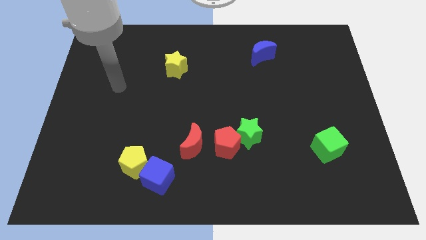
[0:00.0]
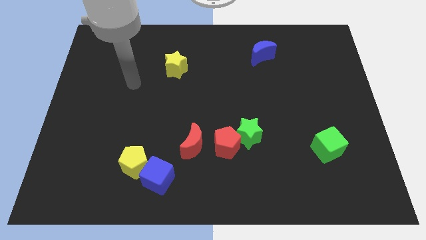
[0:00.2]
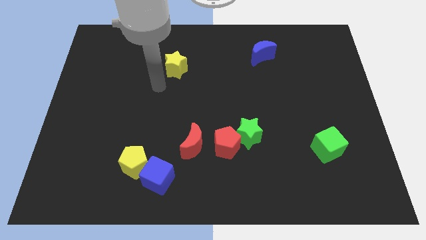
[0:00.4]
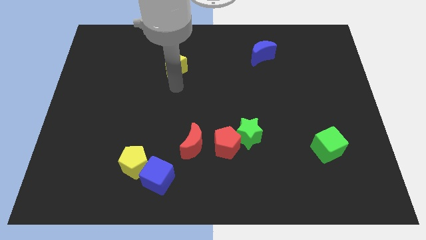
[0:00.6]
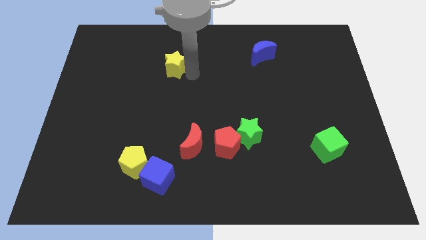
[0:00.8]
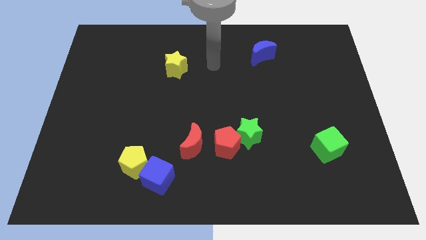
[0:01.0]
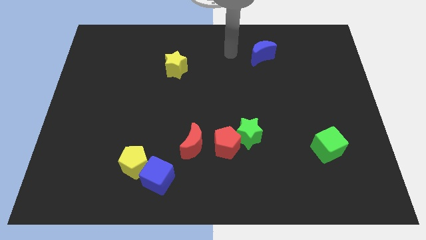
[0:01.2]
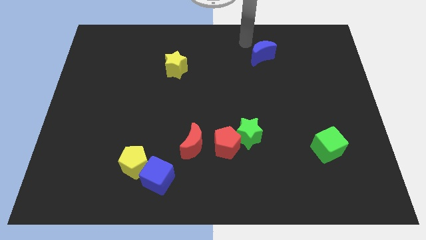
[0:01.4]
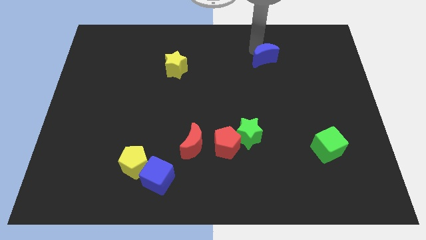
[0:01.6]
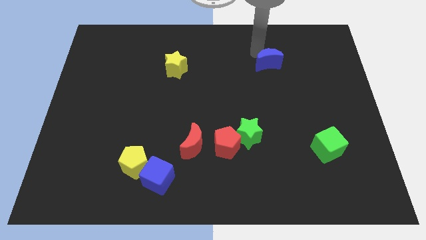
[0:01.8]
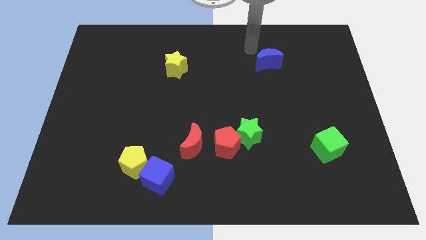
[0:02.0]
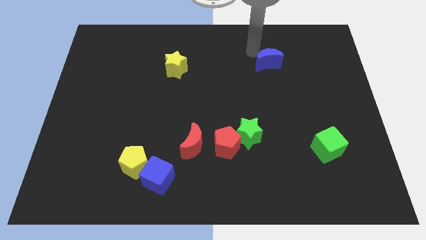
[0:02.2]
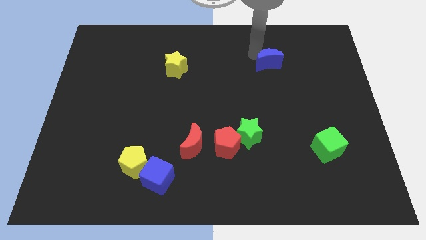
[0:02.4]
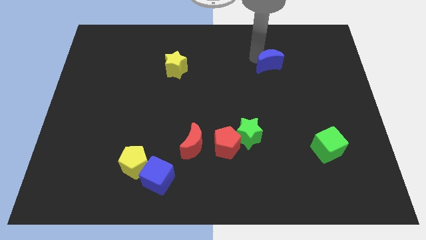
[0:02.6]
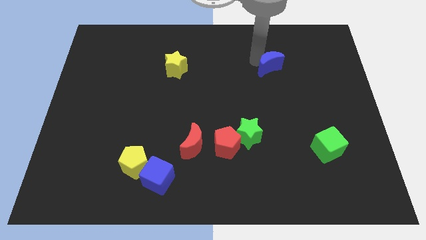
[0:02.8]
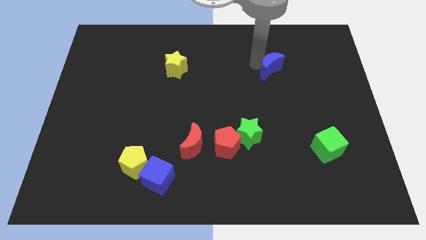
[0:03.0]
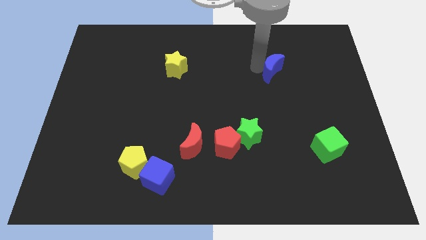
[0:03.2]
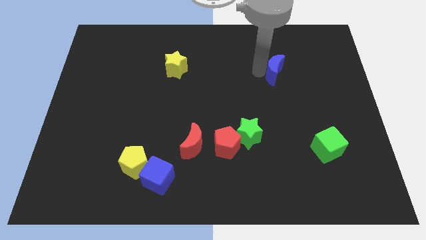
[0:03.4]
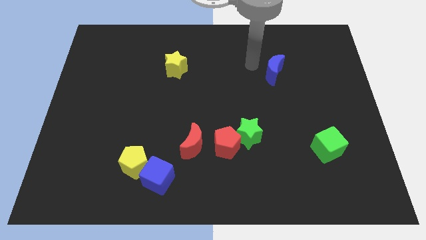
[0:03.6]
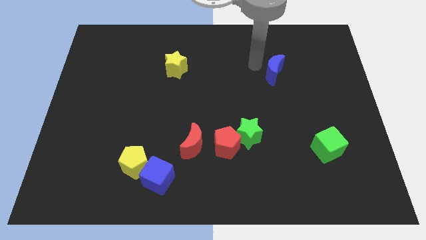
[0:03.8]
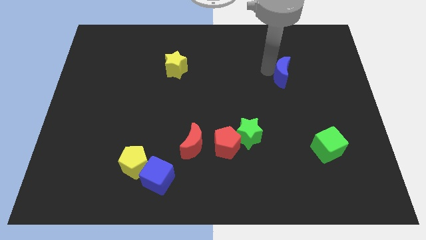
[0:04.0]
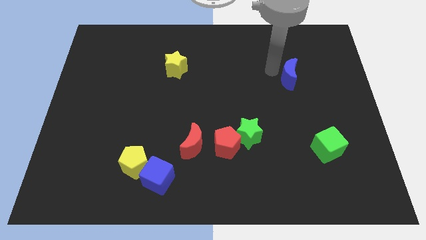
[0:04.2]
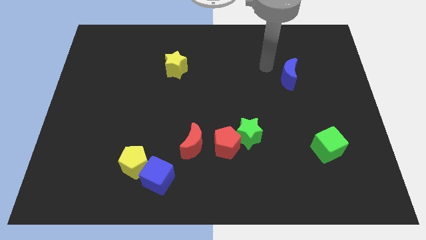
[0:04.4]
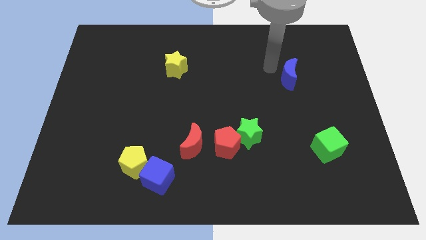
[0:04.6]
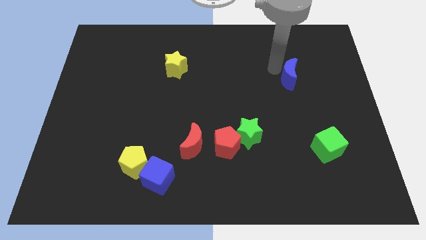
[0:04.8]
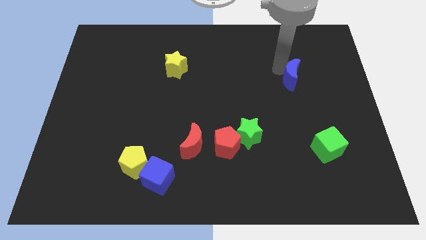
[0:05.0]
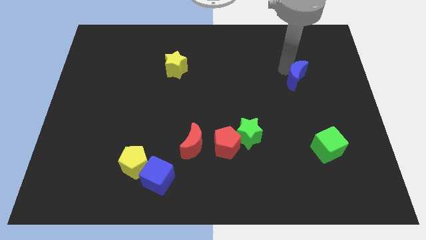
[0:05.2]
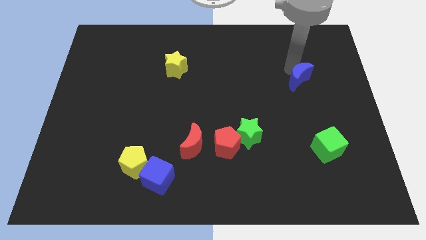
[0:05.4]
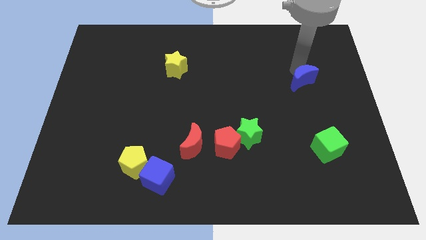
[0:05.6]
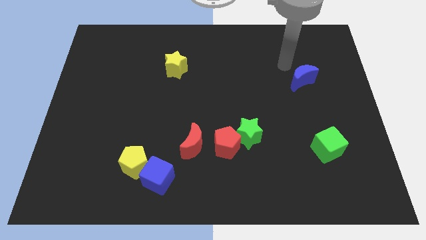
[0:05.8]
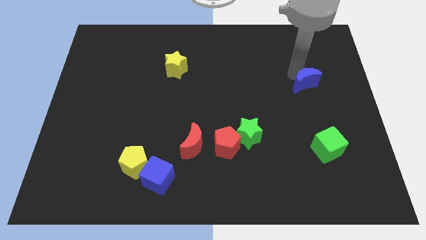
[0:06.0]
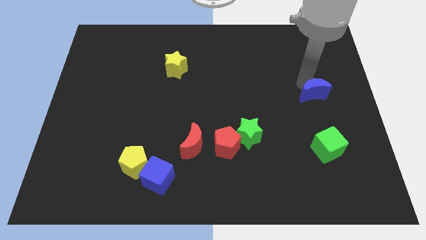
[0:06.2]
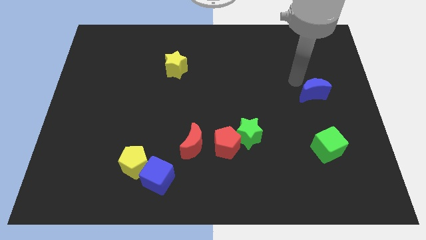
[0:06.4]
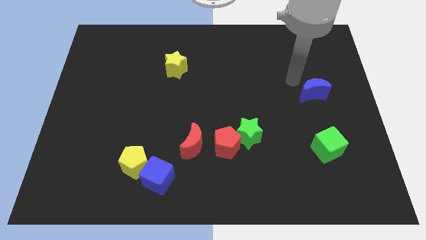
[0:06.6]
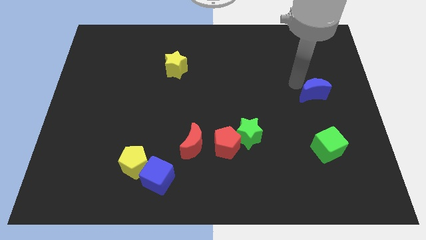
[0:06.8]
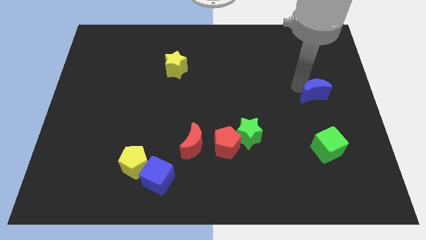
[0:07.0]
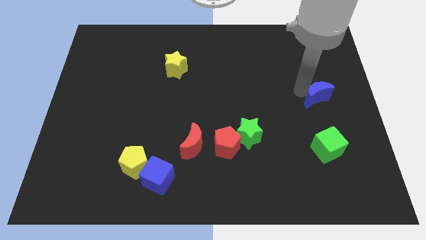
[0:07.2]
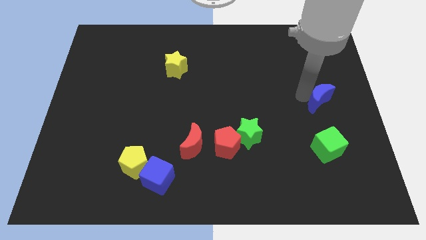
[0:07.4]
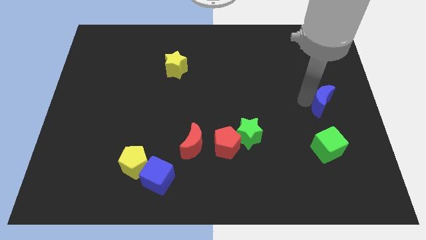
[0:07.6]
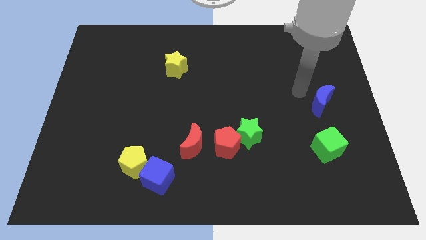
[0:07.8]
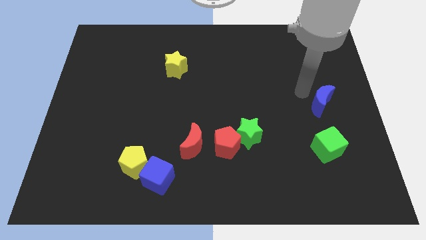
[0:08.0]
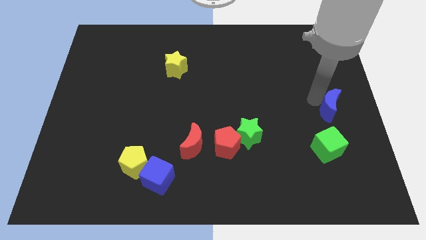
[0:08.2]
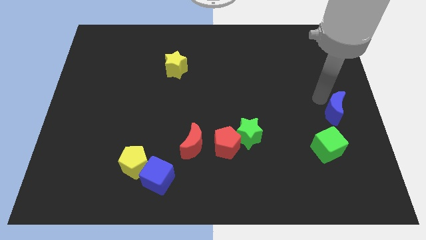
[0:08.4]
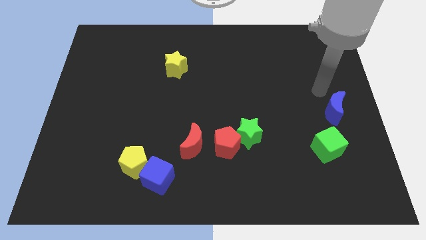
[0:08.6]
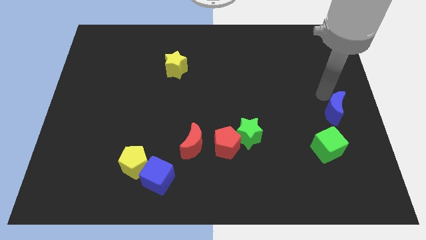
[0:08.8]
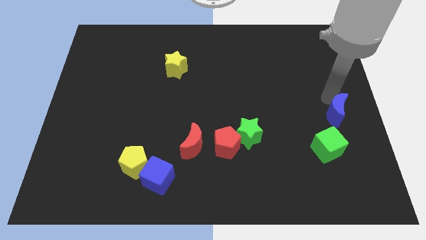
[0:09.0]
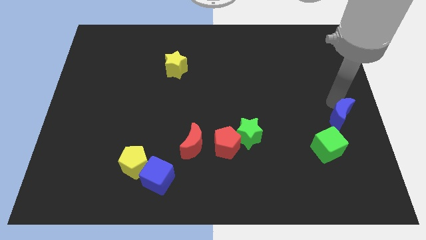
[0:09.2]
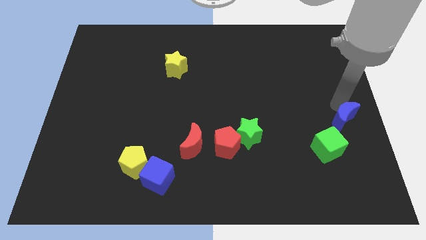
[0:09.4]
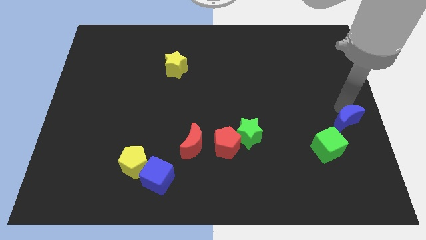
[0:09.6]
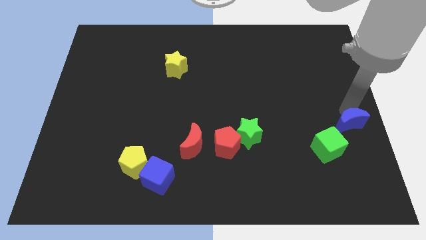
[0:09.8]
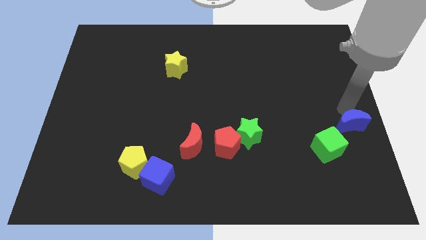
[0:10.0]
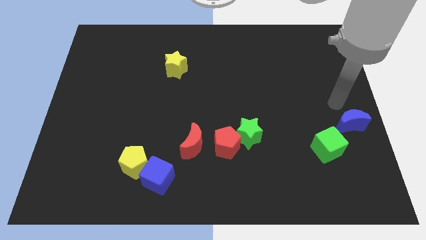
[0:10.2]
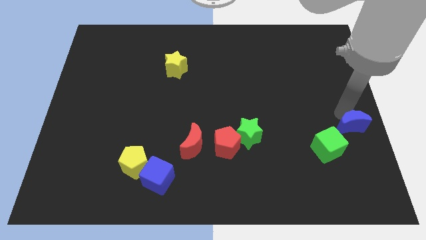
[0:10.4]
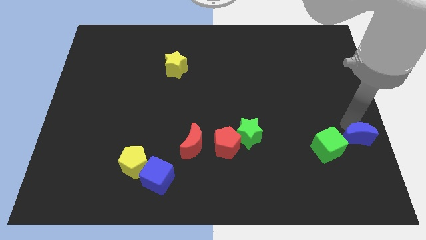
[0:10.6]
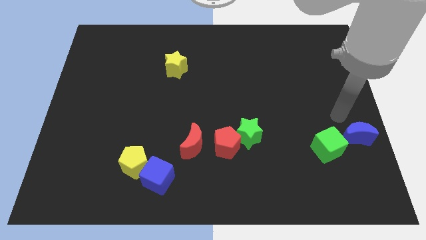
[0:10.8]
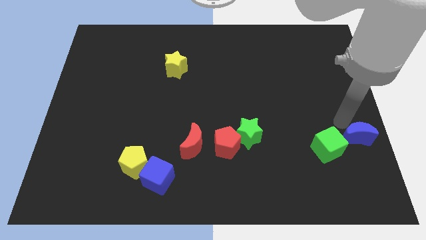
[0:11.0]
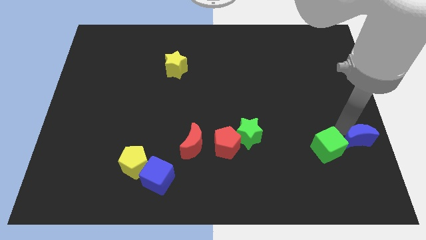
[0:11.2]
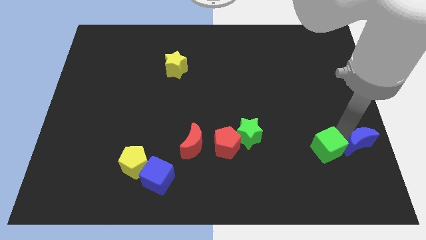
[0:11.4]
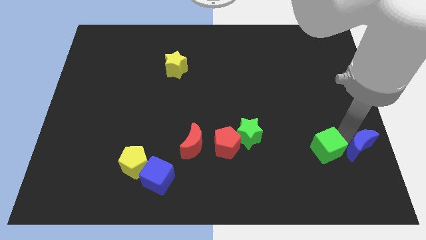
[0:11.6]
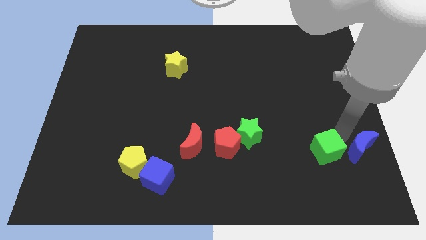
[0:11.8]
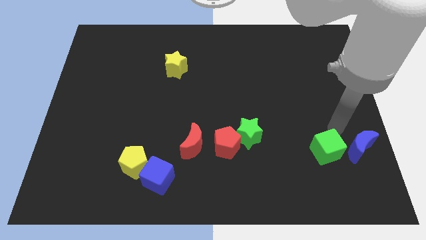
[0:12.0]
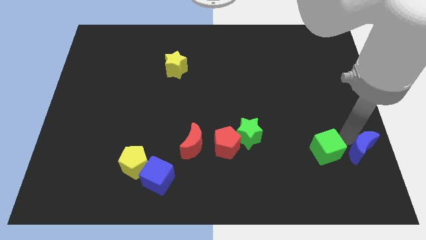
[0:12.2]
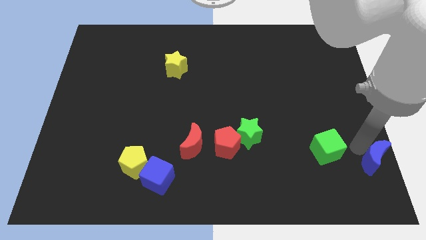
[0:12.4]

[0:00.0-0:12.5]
slide the blue moon to the bottom right of the board
